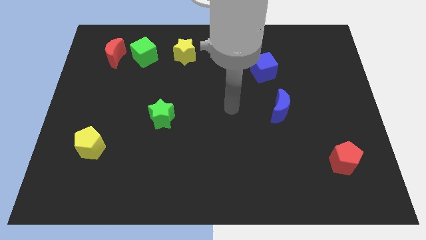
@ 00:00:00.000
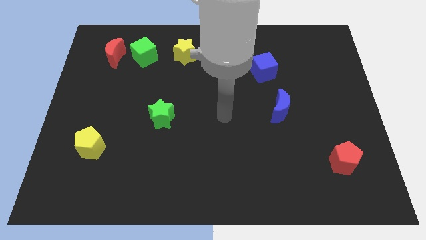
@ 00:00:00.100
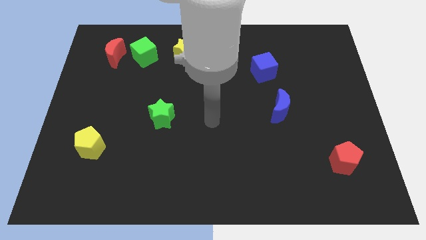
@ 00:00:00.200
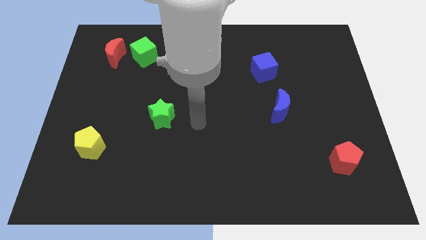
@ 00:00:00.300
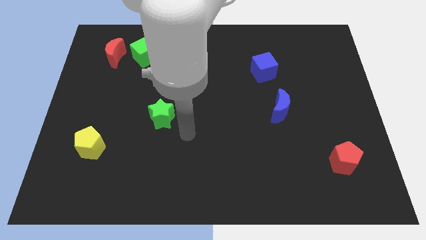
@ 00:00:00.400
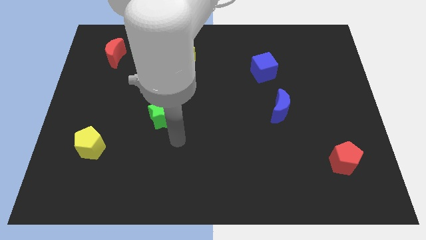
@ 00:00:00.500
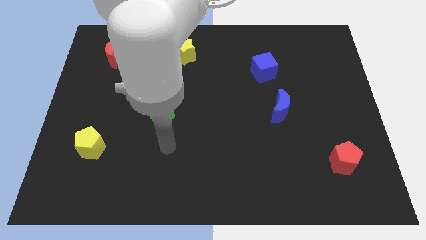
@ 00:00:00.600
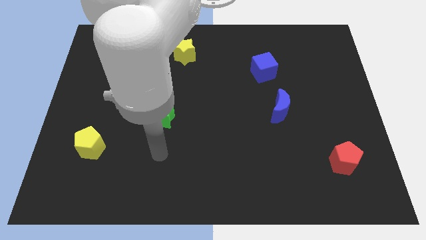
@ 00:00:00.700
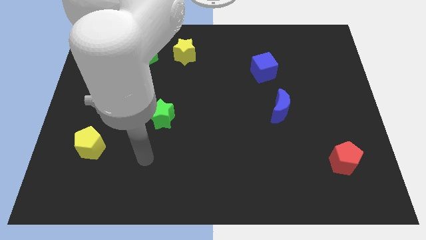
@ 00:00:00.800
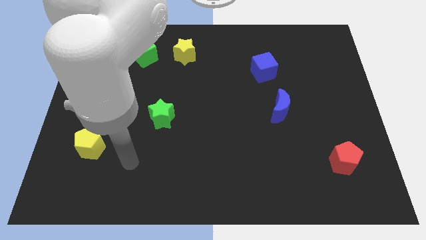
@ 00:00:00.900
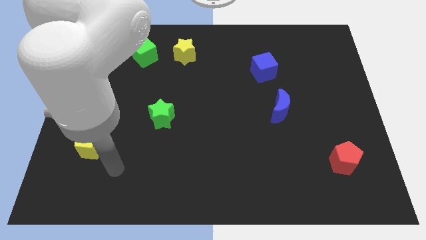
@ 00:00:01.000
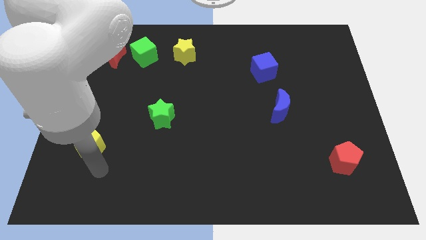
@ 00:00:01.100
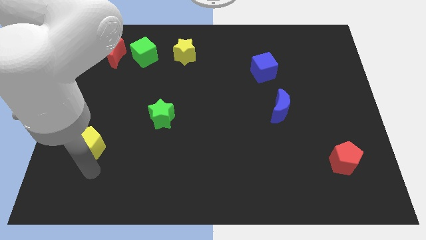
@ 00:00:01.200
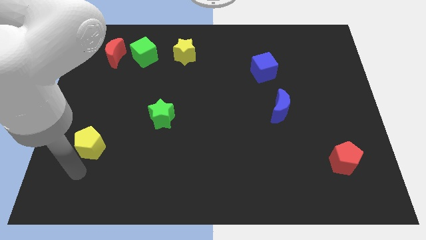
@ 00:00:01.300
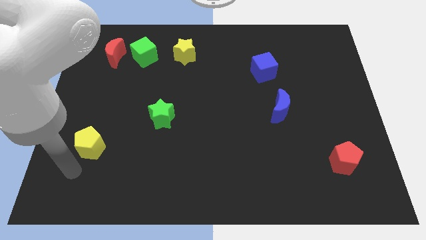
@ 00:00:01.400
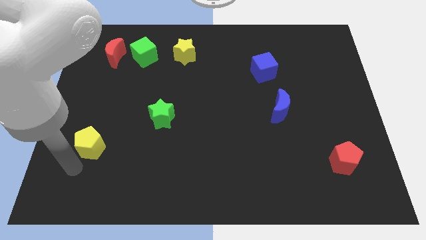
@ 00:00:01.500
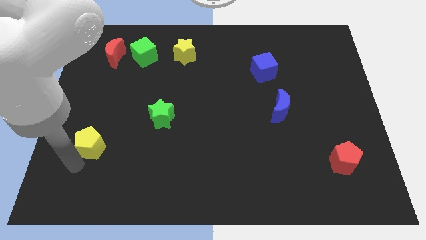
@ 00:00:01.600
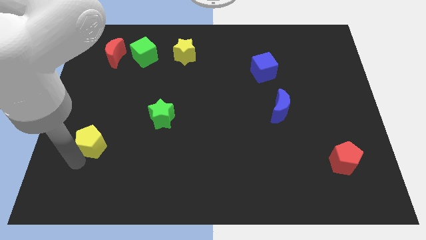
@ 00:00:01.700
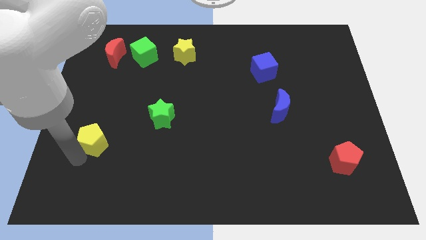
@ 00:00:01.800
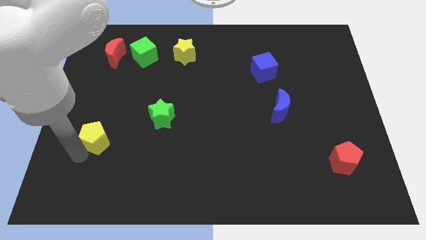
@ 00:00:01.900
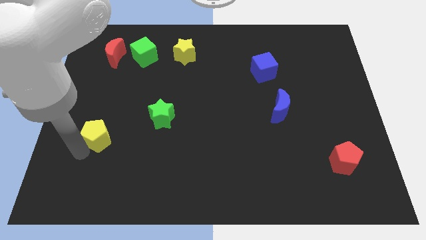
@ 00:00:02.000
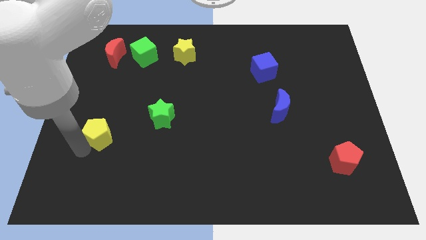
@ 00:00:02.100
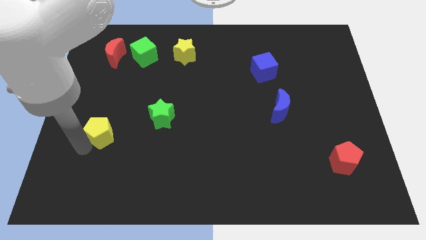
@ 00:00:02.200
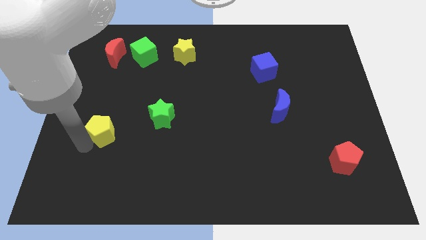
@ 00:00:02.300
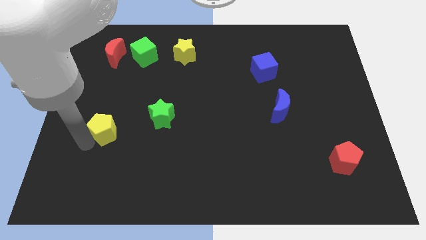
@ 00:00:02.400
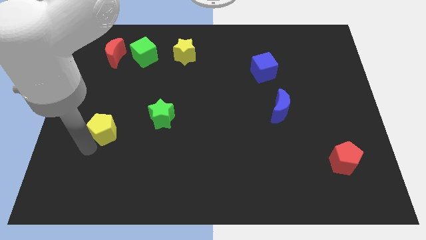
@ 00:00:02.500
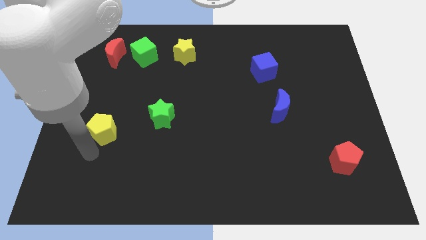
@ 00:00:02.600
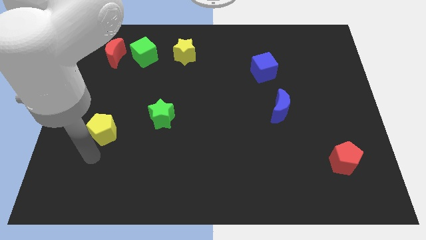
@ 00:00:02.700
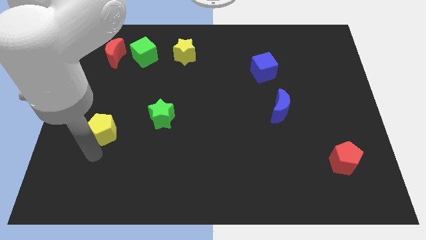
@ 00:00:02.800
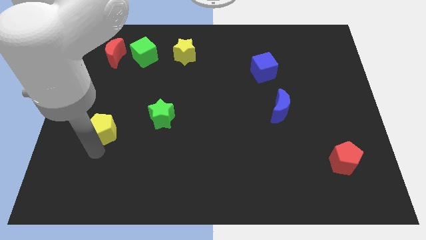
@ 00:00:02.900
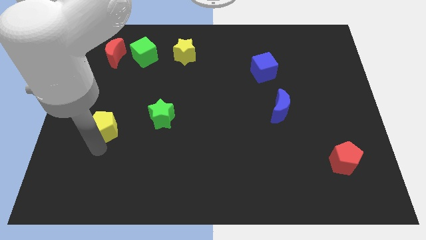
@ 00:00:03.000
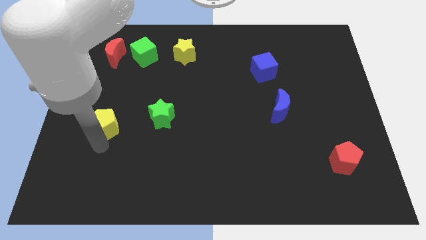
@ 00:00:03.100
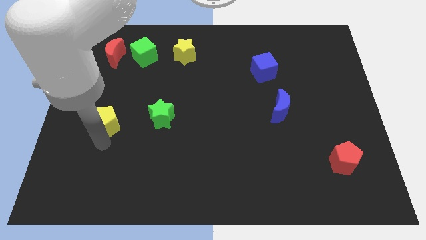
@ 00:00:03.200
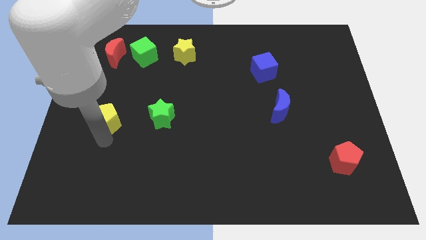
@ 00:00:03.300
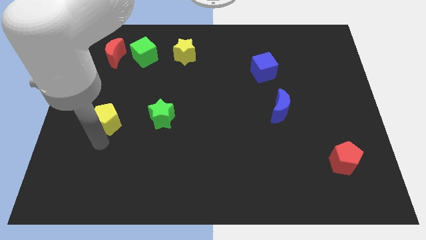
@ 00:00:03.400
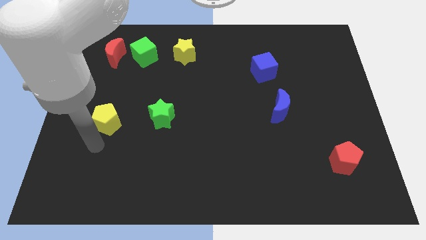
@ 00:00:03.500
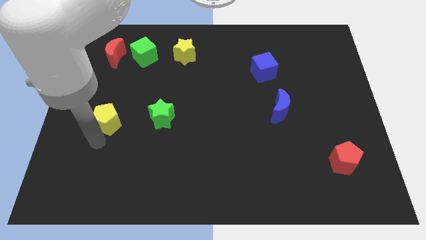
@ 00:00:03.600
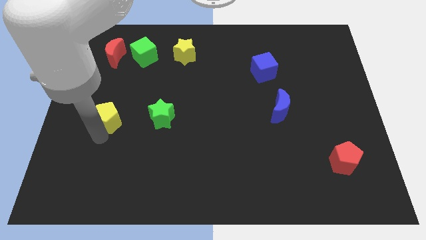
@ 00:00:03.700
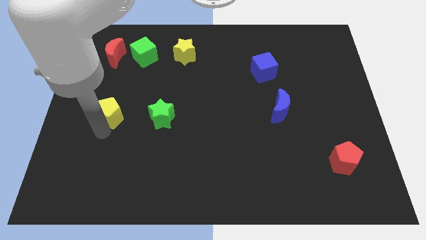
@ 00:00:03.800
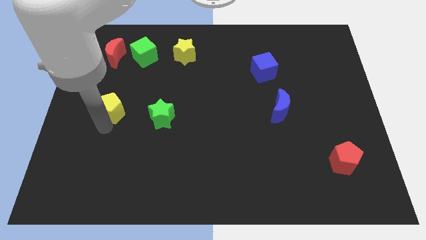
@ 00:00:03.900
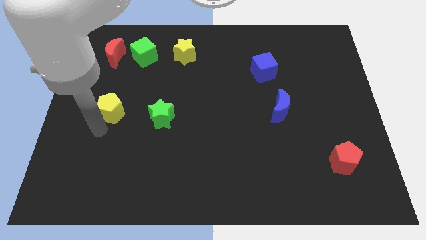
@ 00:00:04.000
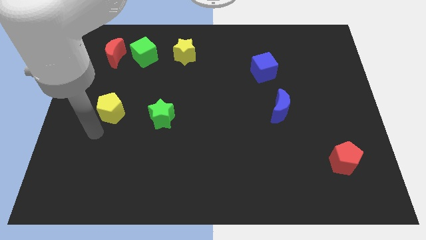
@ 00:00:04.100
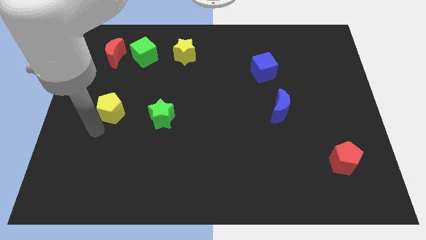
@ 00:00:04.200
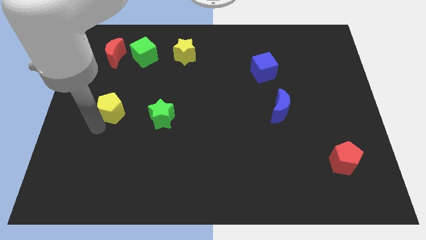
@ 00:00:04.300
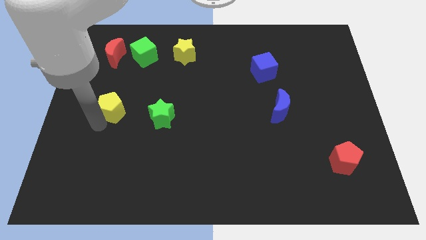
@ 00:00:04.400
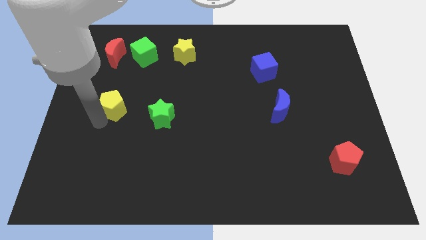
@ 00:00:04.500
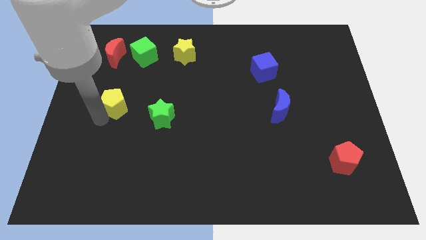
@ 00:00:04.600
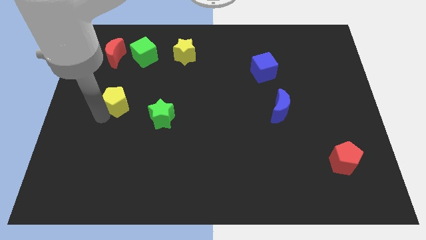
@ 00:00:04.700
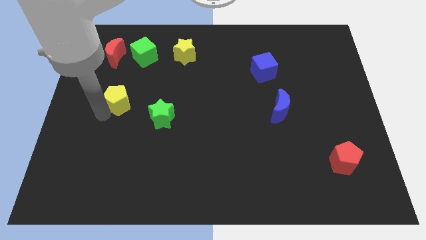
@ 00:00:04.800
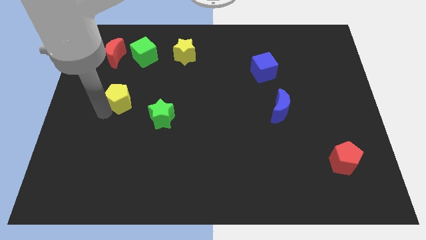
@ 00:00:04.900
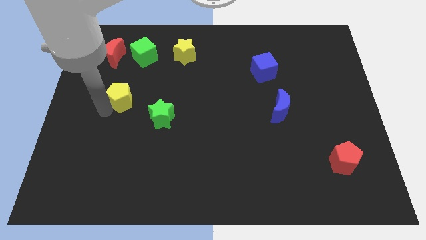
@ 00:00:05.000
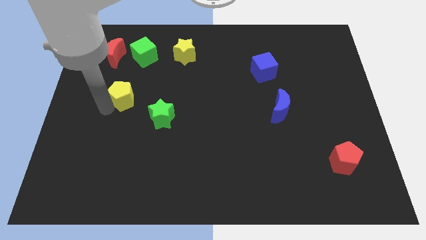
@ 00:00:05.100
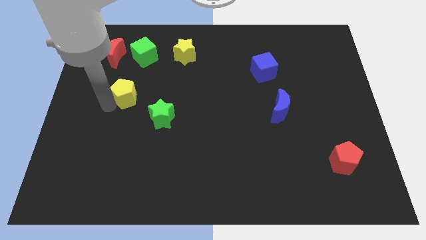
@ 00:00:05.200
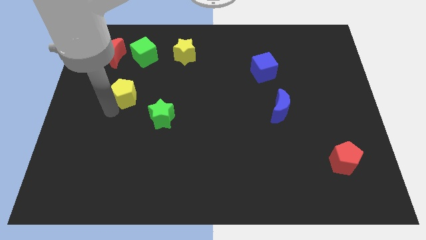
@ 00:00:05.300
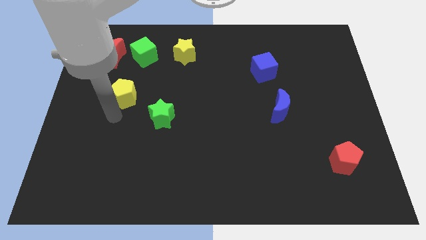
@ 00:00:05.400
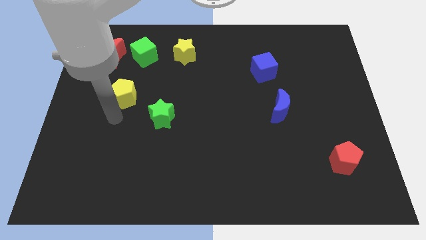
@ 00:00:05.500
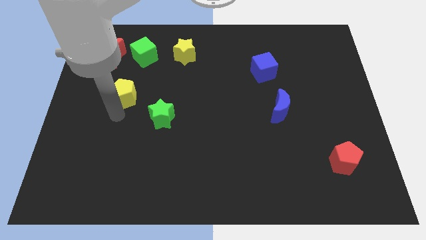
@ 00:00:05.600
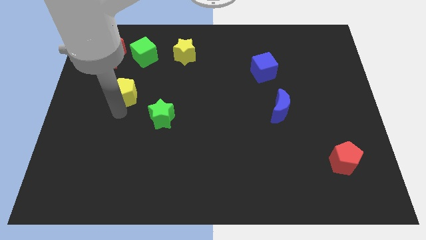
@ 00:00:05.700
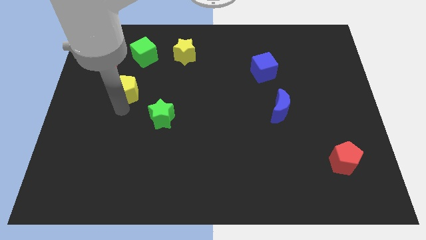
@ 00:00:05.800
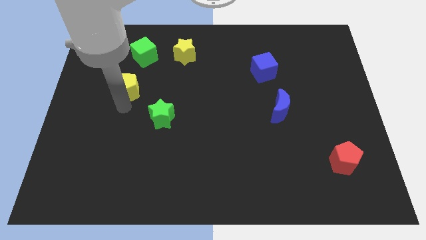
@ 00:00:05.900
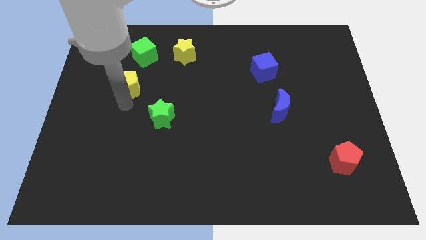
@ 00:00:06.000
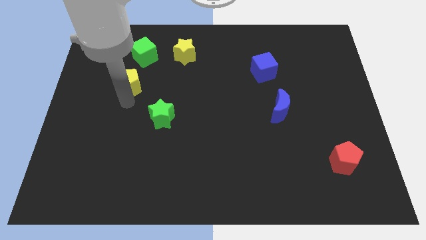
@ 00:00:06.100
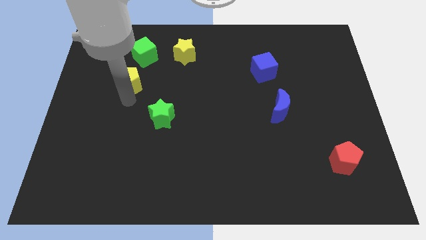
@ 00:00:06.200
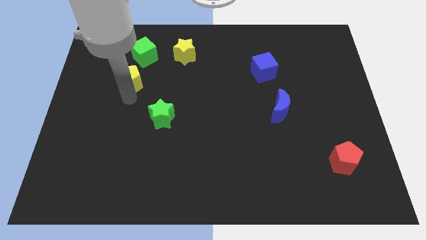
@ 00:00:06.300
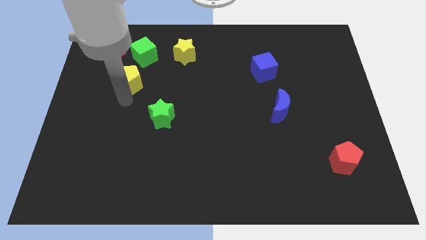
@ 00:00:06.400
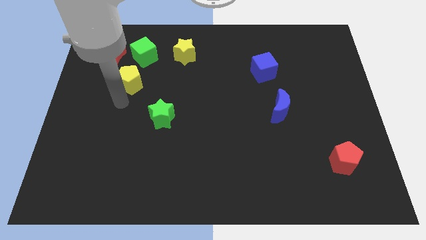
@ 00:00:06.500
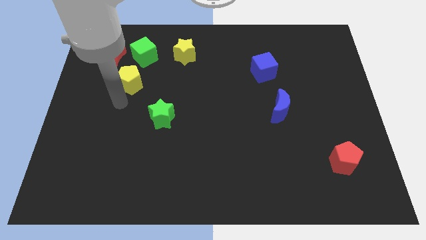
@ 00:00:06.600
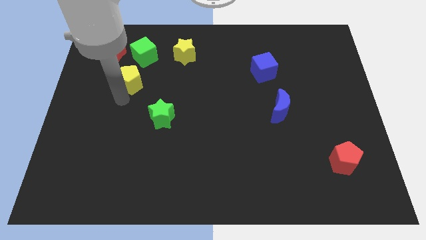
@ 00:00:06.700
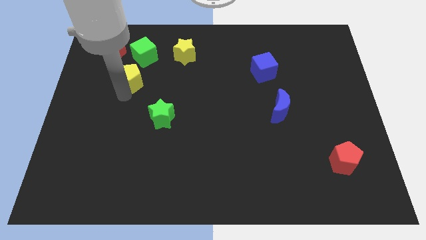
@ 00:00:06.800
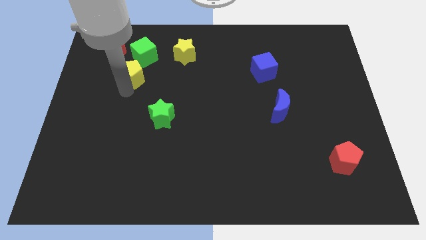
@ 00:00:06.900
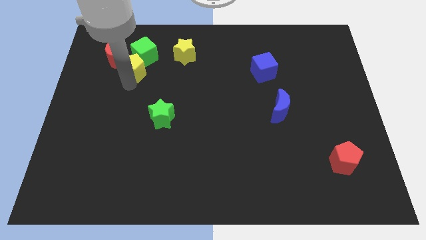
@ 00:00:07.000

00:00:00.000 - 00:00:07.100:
move the yellow pentagon next to the green cube
